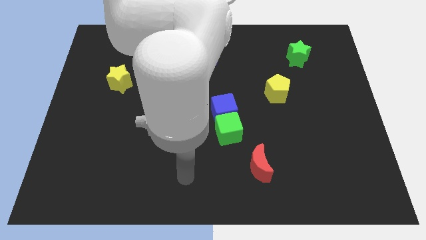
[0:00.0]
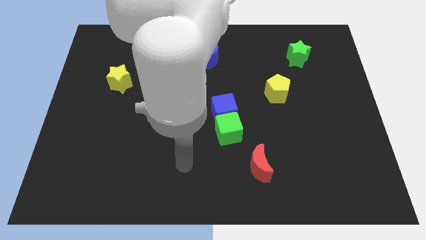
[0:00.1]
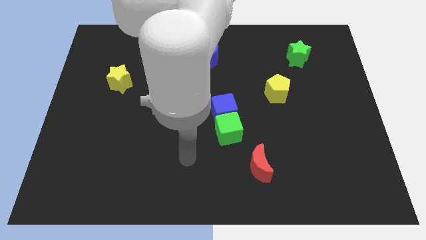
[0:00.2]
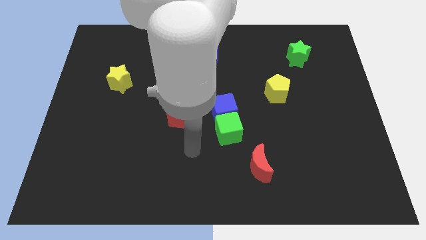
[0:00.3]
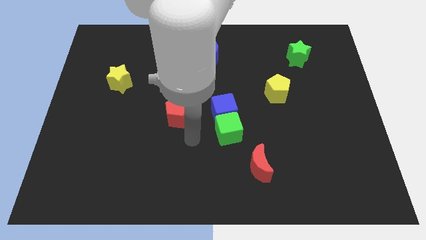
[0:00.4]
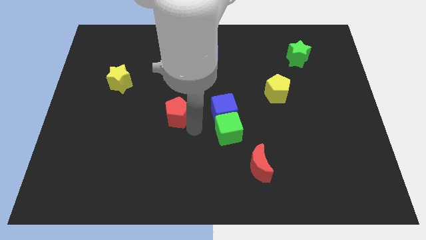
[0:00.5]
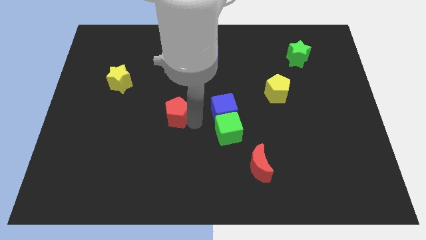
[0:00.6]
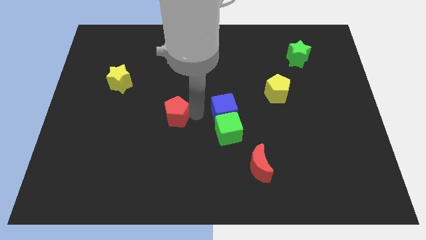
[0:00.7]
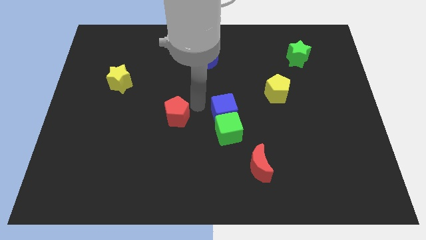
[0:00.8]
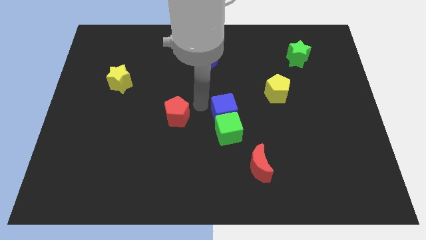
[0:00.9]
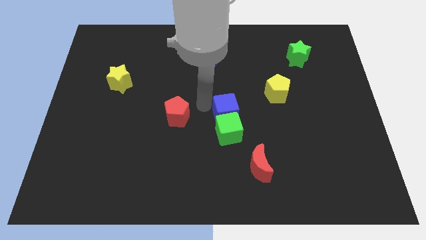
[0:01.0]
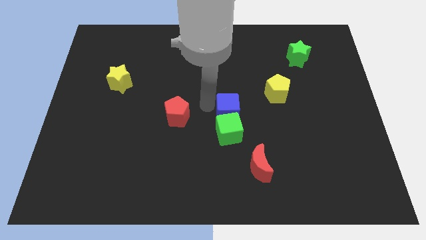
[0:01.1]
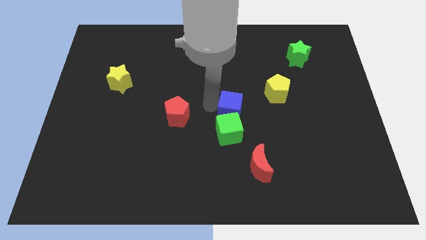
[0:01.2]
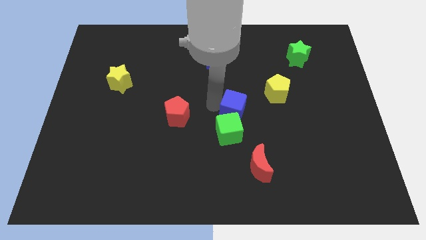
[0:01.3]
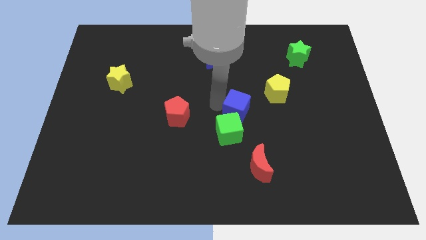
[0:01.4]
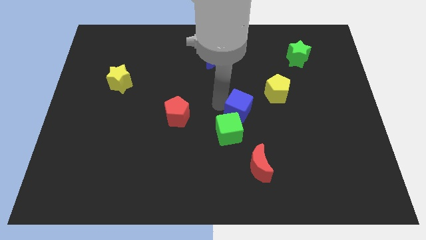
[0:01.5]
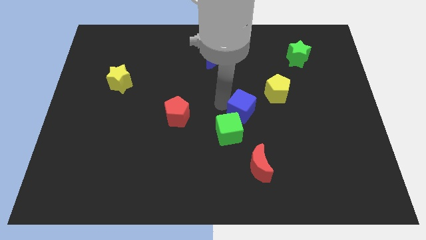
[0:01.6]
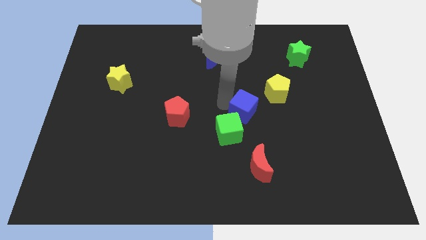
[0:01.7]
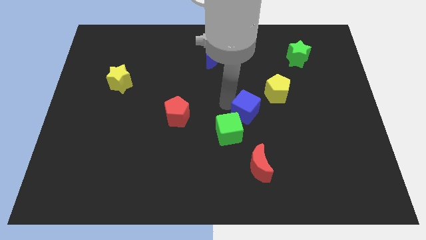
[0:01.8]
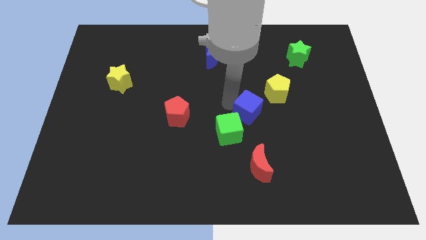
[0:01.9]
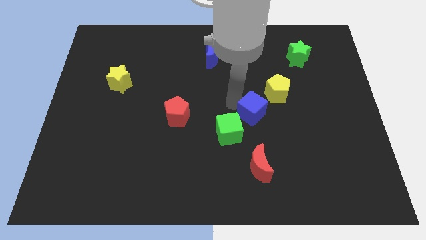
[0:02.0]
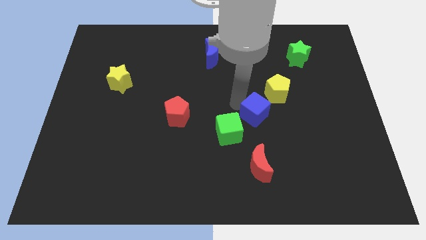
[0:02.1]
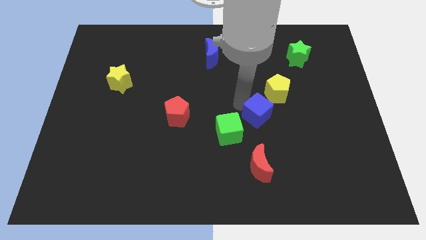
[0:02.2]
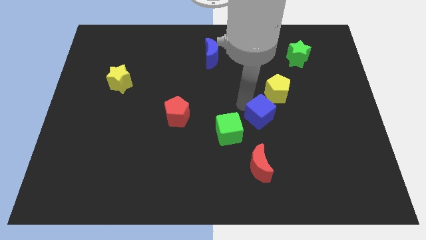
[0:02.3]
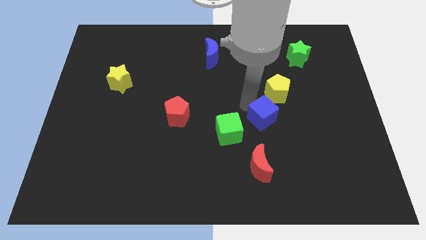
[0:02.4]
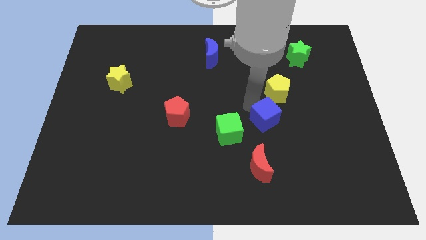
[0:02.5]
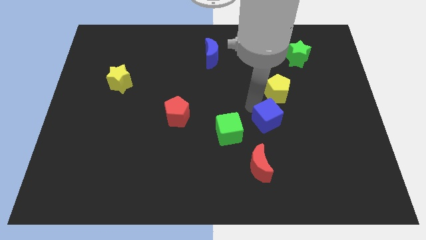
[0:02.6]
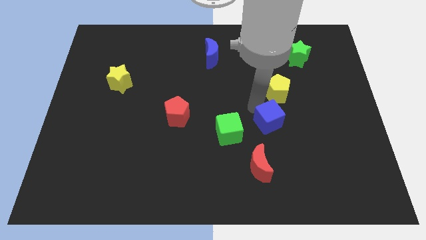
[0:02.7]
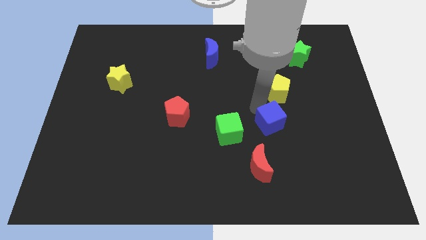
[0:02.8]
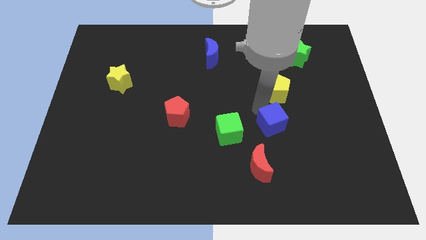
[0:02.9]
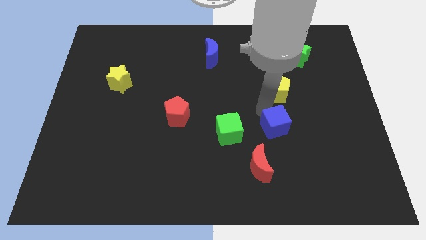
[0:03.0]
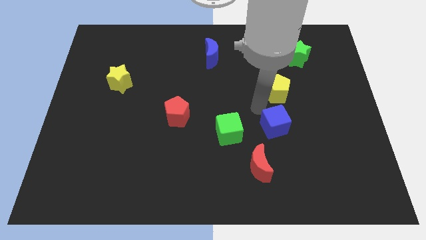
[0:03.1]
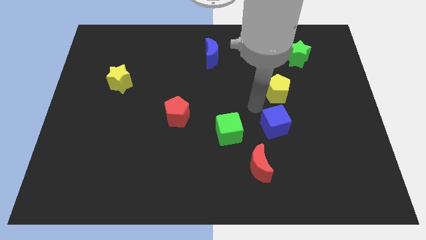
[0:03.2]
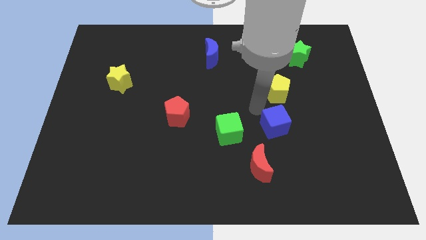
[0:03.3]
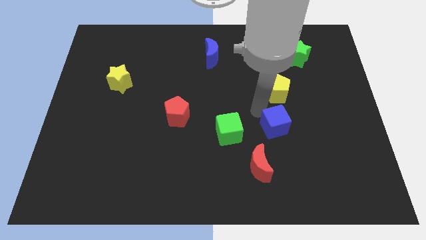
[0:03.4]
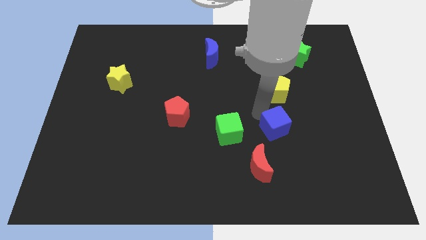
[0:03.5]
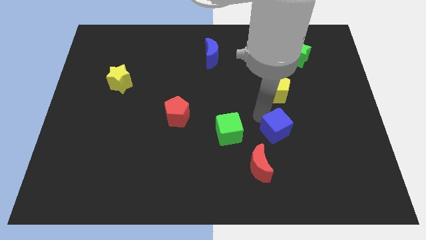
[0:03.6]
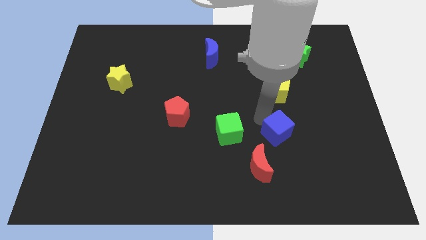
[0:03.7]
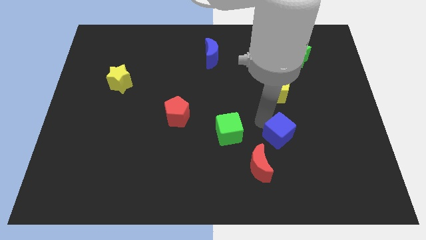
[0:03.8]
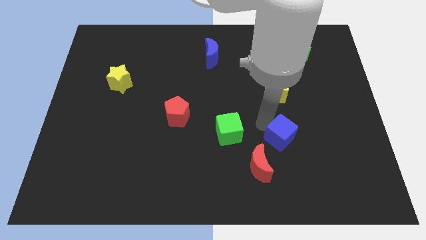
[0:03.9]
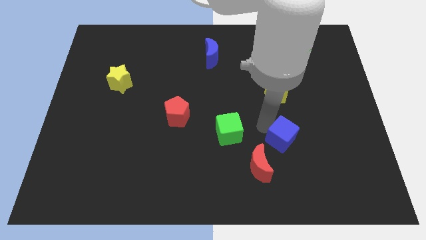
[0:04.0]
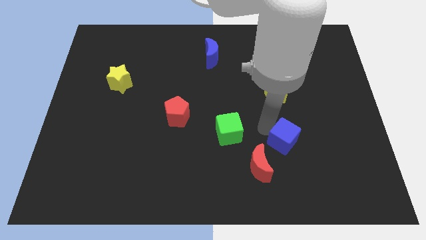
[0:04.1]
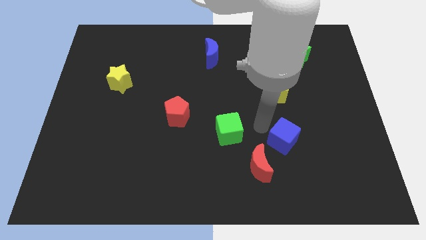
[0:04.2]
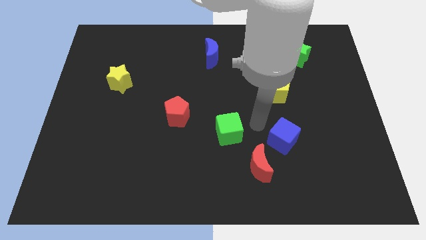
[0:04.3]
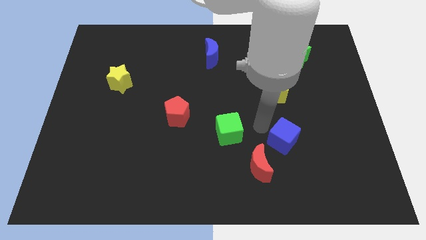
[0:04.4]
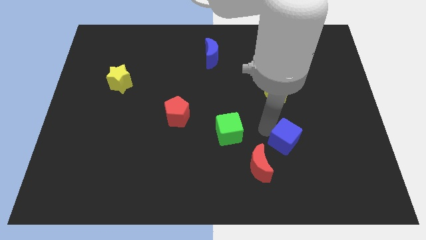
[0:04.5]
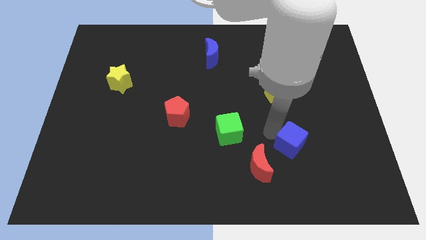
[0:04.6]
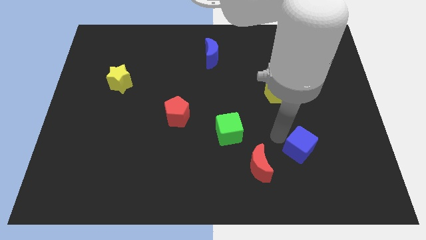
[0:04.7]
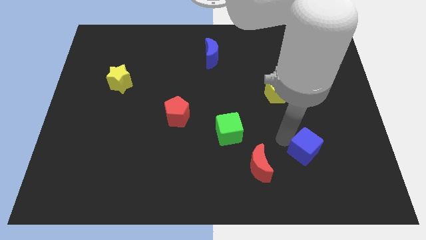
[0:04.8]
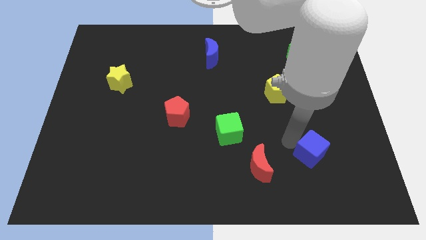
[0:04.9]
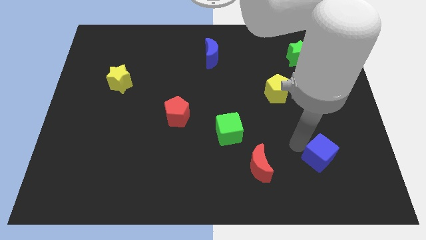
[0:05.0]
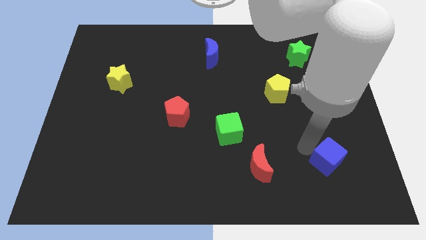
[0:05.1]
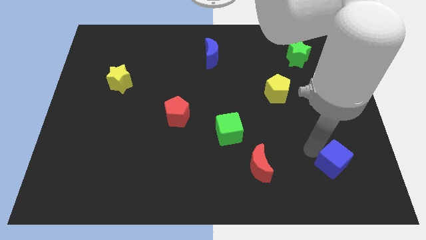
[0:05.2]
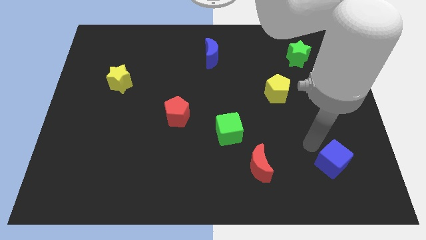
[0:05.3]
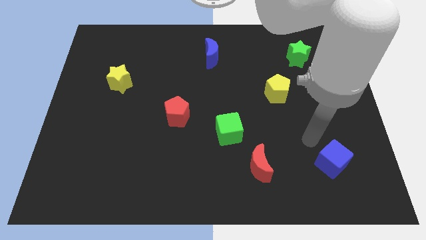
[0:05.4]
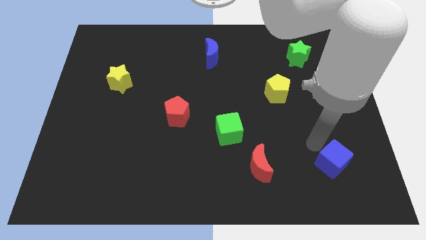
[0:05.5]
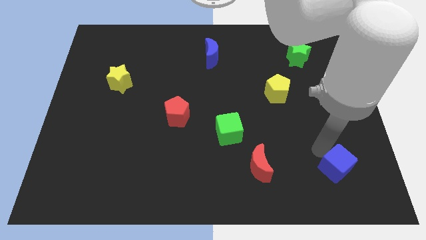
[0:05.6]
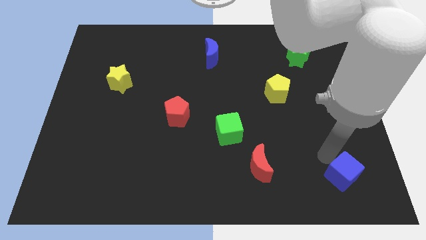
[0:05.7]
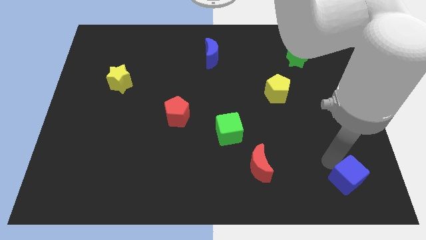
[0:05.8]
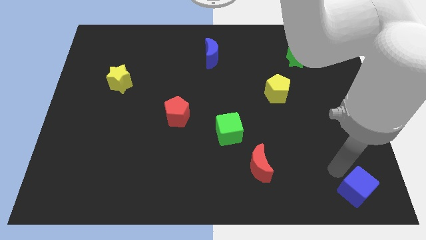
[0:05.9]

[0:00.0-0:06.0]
put the blue cube to the bottom right

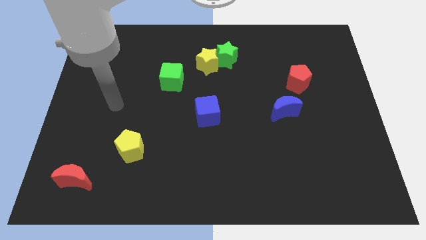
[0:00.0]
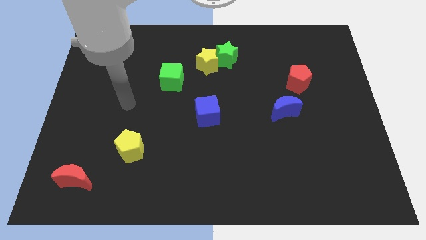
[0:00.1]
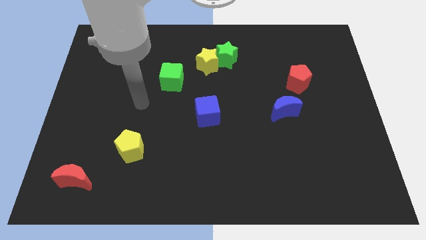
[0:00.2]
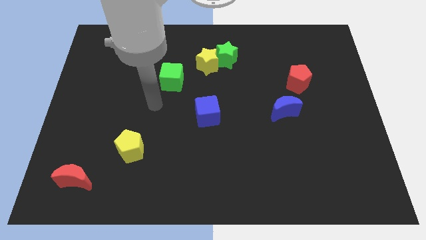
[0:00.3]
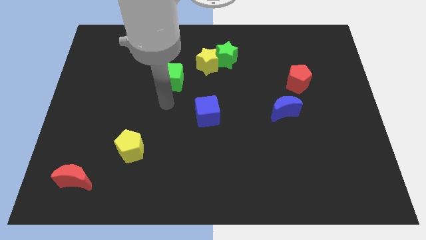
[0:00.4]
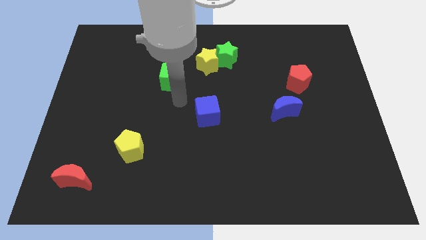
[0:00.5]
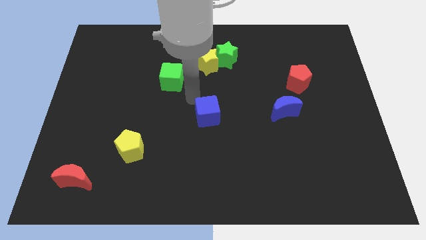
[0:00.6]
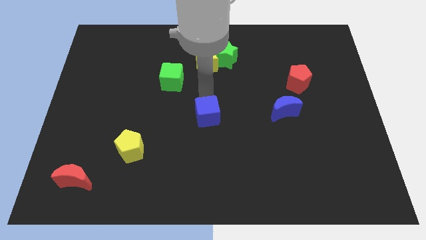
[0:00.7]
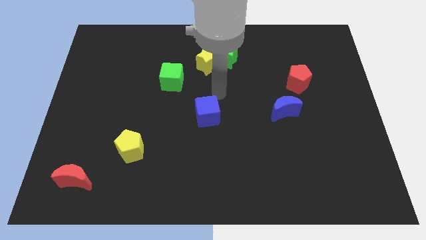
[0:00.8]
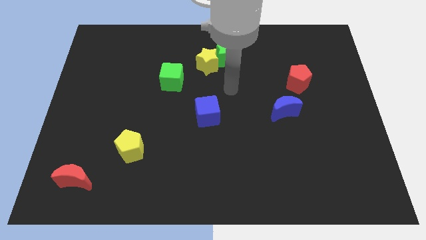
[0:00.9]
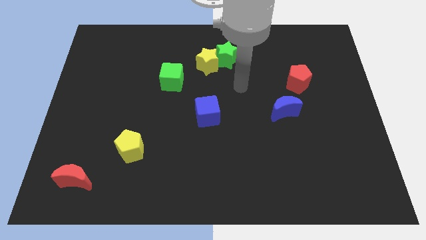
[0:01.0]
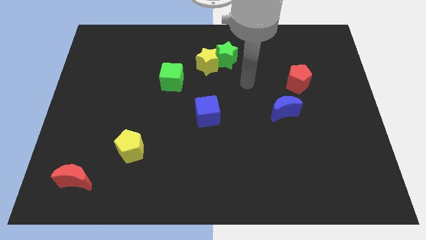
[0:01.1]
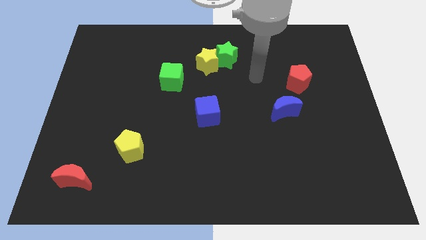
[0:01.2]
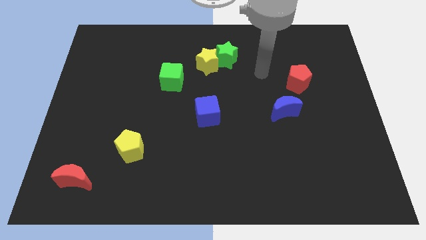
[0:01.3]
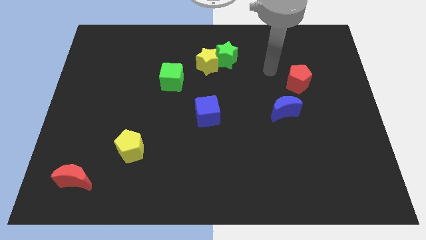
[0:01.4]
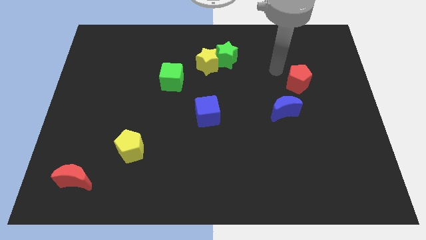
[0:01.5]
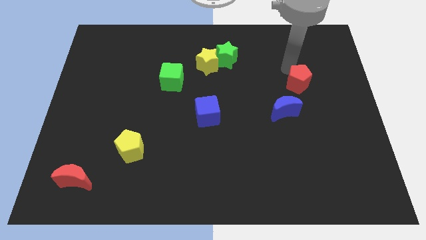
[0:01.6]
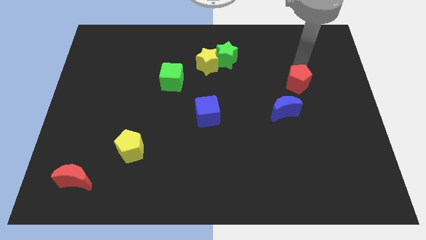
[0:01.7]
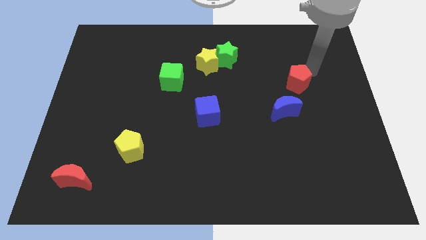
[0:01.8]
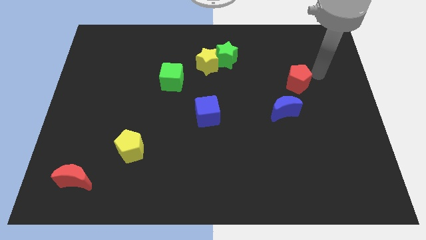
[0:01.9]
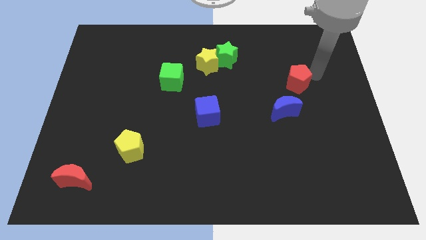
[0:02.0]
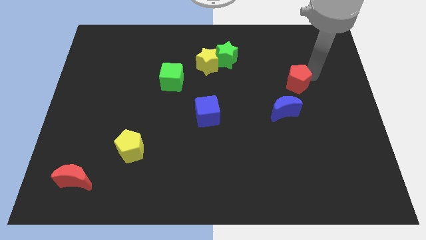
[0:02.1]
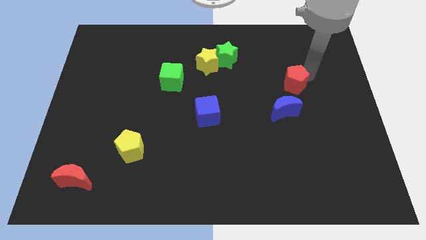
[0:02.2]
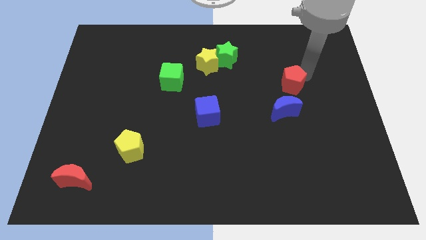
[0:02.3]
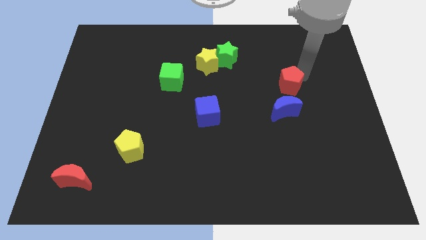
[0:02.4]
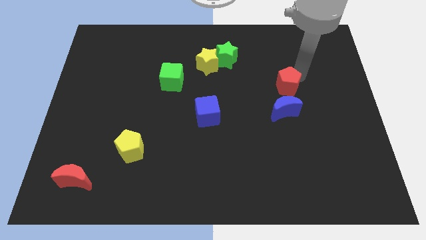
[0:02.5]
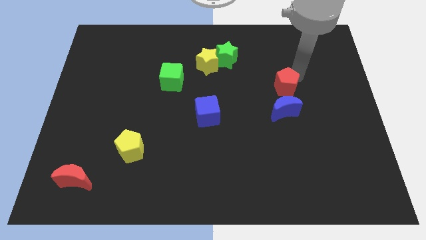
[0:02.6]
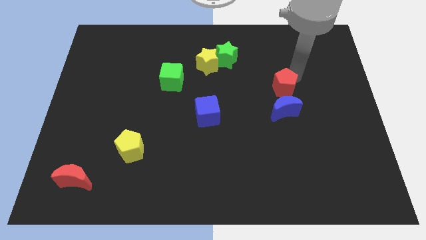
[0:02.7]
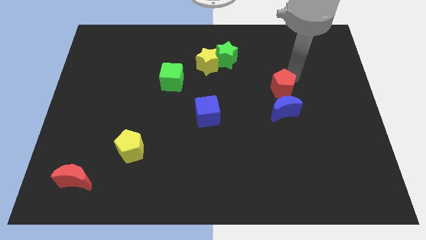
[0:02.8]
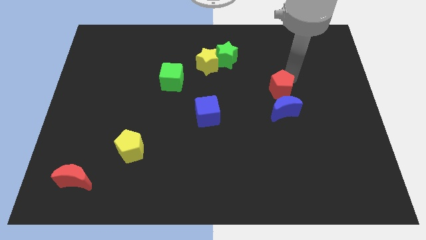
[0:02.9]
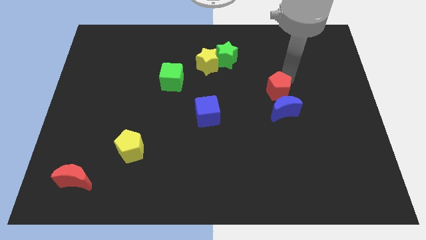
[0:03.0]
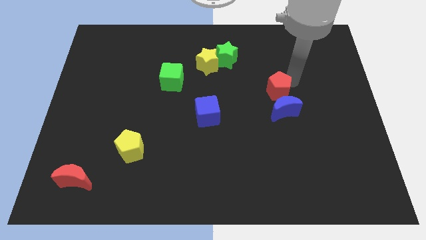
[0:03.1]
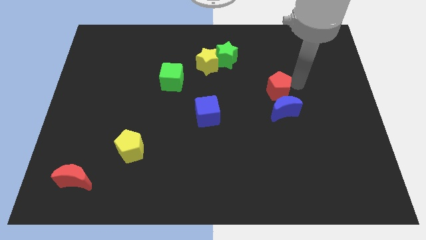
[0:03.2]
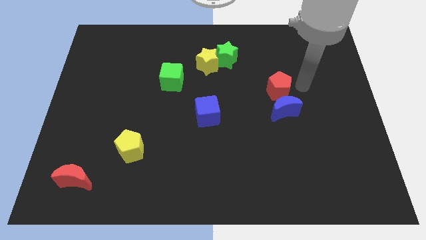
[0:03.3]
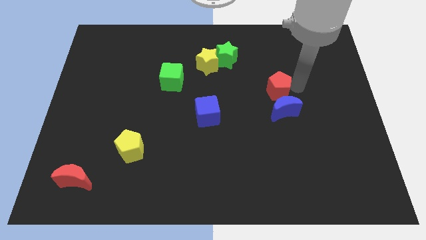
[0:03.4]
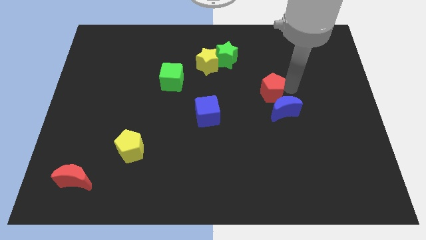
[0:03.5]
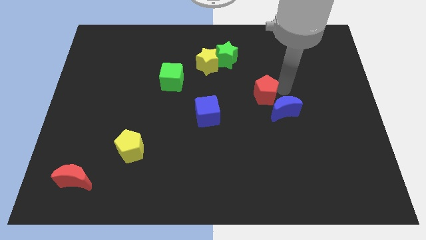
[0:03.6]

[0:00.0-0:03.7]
move the red pentagon to the center of the board
